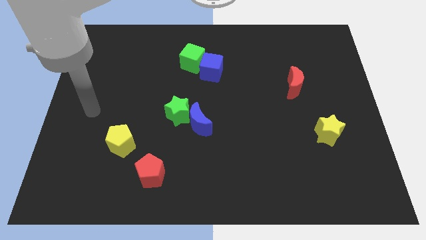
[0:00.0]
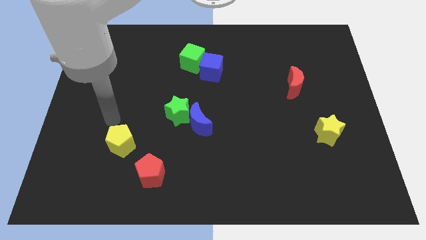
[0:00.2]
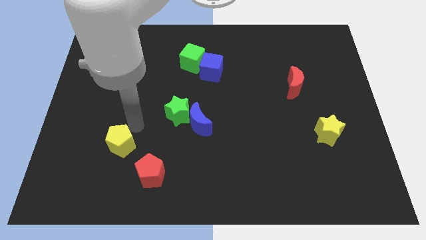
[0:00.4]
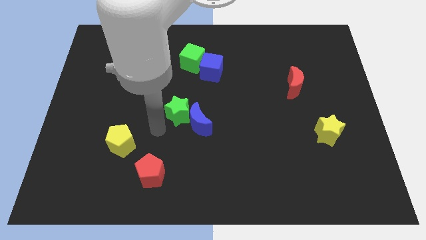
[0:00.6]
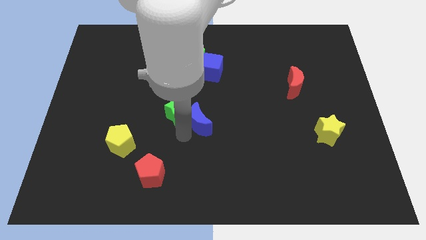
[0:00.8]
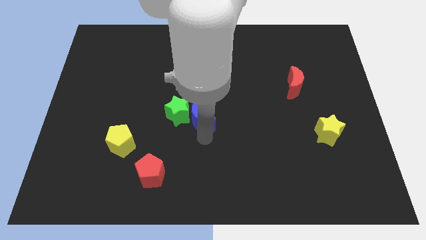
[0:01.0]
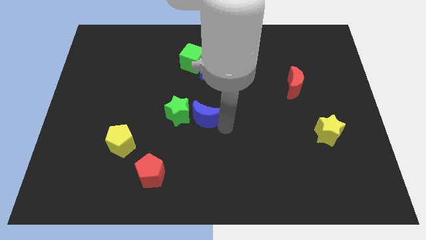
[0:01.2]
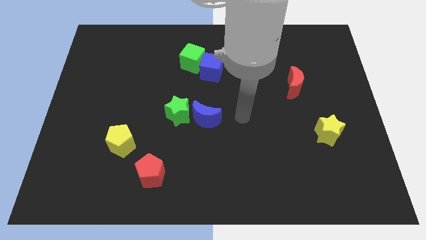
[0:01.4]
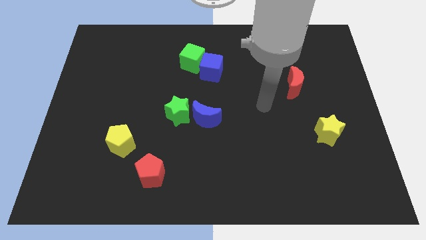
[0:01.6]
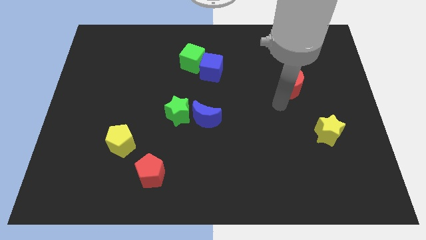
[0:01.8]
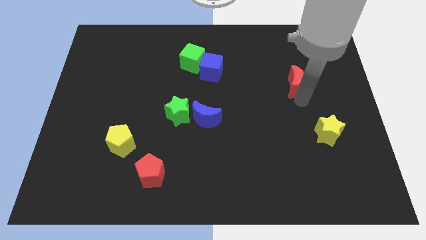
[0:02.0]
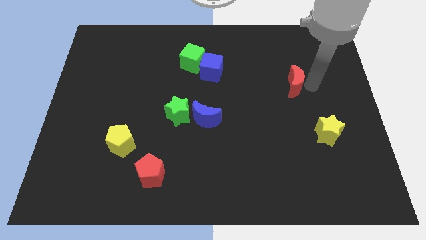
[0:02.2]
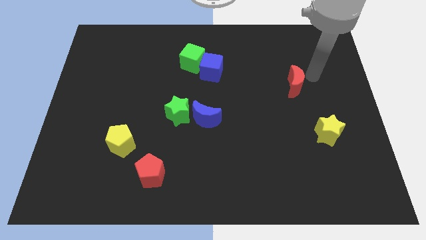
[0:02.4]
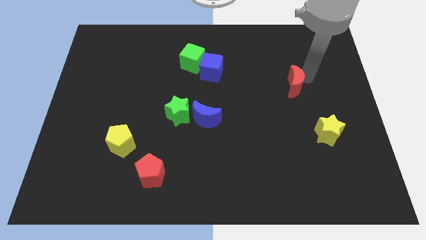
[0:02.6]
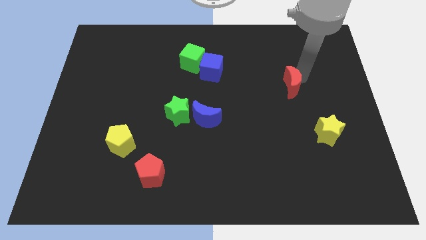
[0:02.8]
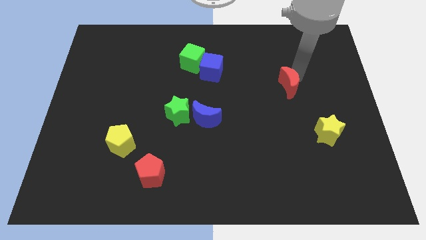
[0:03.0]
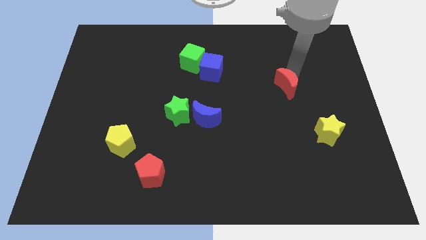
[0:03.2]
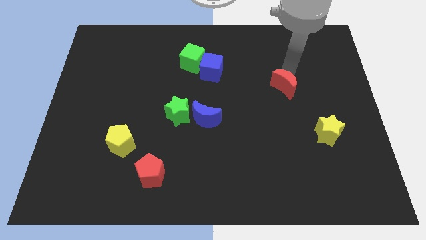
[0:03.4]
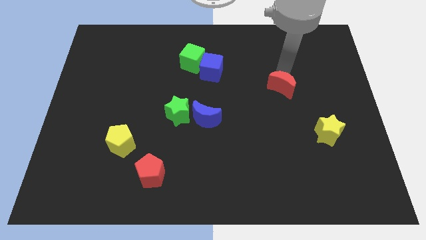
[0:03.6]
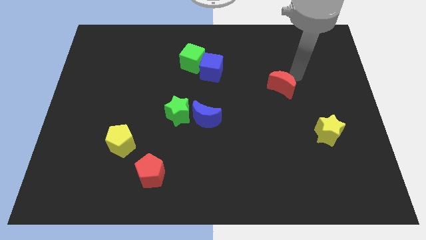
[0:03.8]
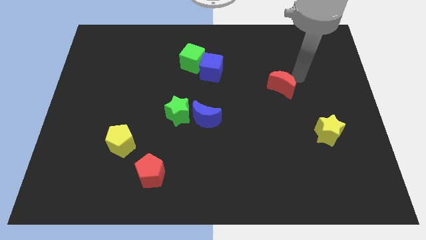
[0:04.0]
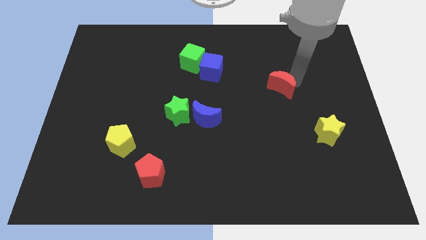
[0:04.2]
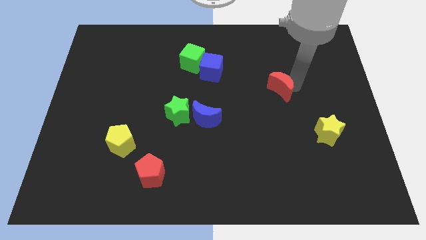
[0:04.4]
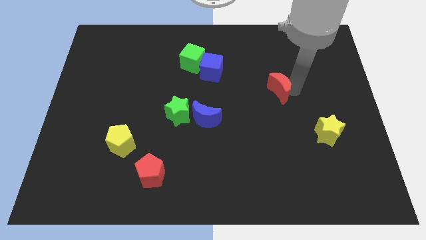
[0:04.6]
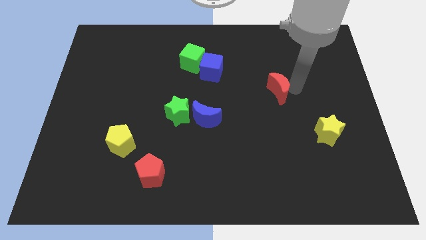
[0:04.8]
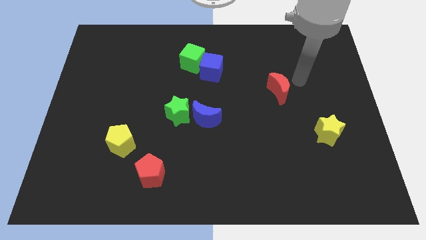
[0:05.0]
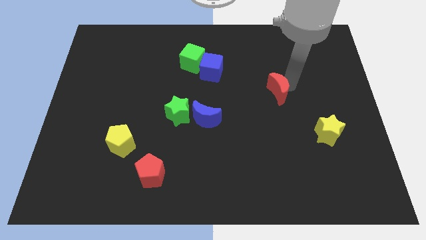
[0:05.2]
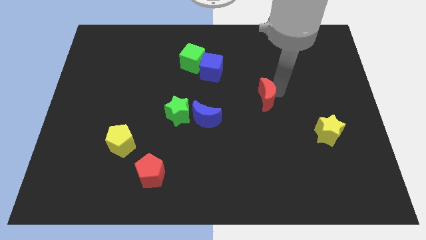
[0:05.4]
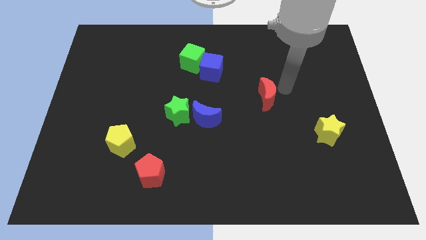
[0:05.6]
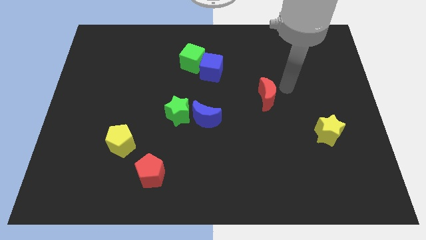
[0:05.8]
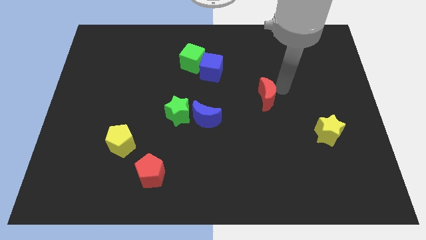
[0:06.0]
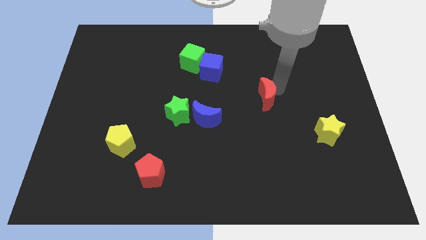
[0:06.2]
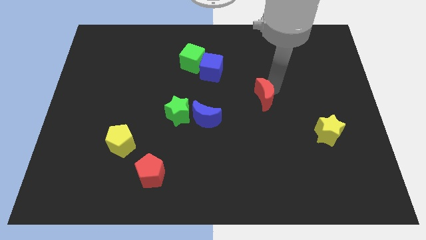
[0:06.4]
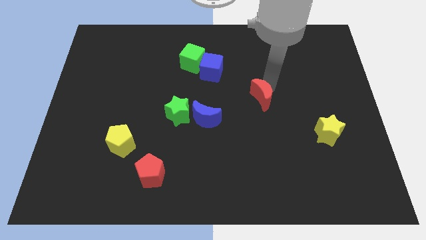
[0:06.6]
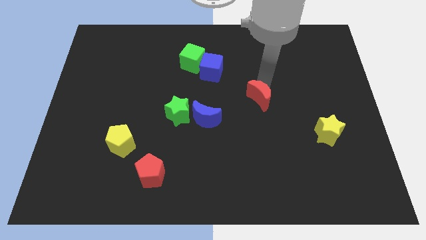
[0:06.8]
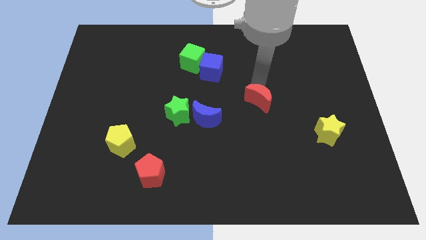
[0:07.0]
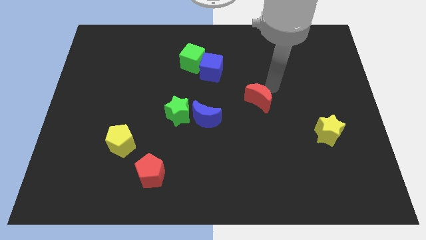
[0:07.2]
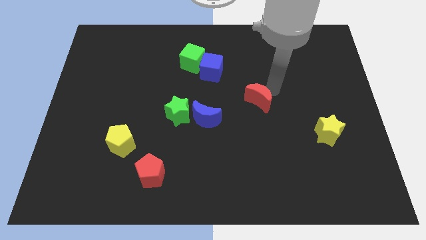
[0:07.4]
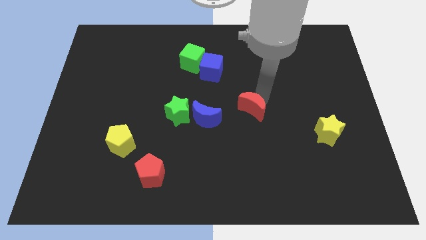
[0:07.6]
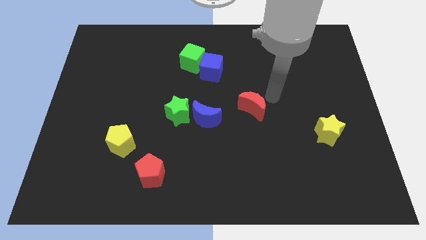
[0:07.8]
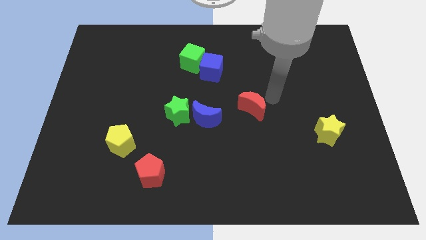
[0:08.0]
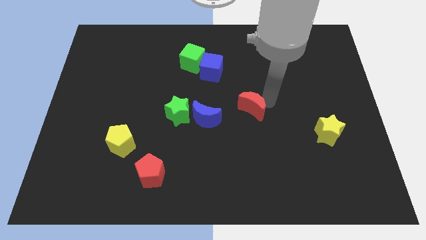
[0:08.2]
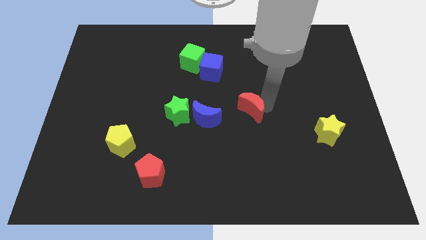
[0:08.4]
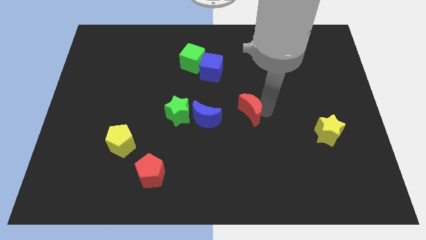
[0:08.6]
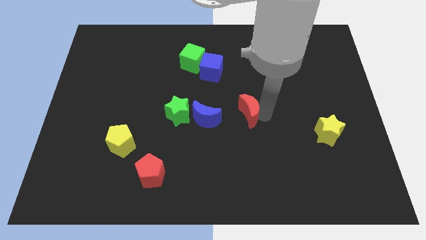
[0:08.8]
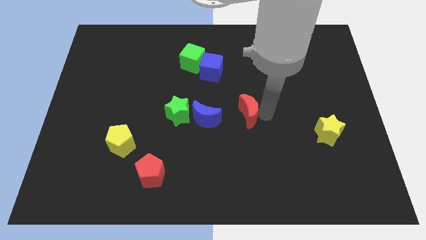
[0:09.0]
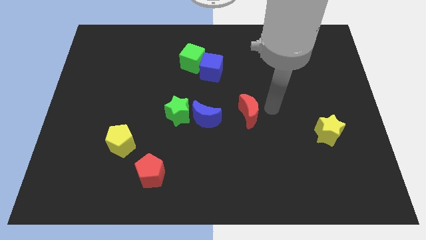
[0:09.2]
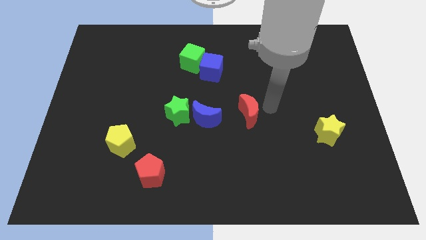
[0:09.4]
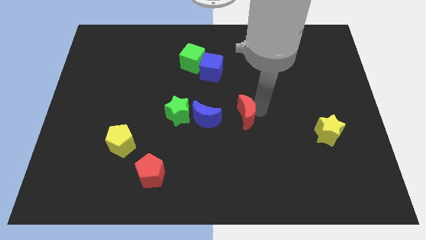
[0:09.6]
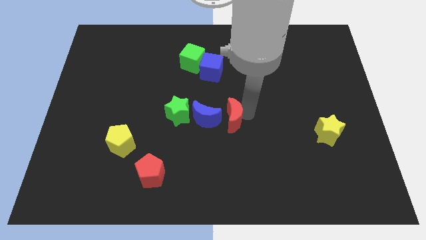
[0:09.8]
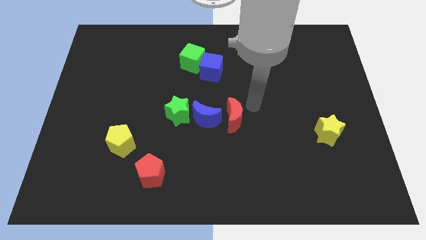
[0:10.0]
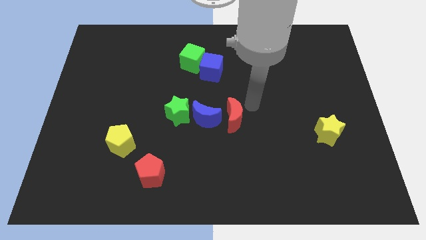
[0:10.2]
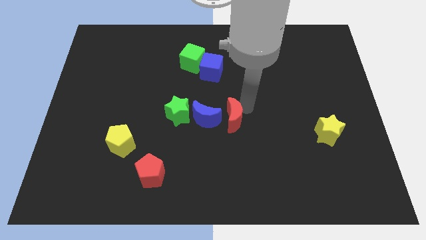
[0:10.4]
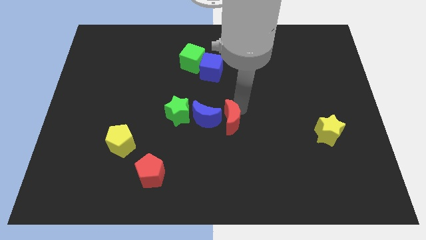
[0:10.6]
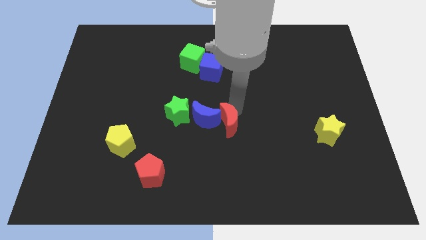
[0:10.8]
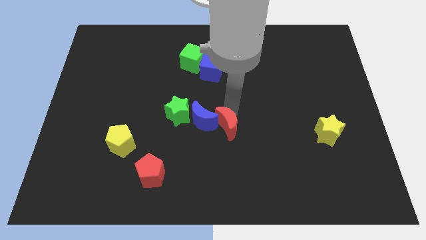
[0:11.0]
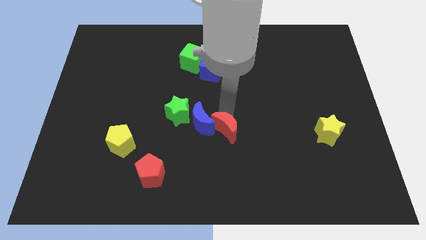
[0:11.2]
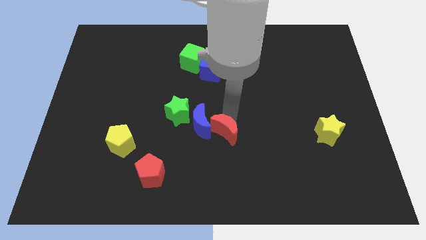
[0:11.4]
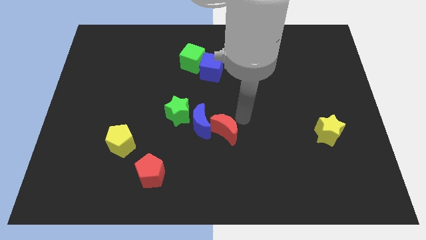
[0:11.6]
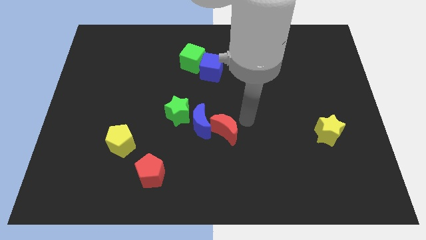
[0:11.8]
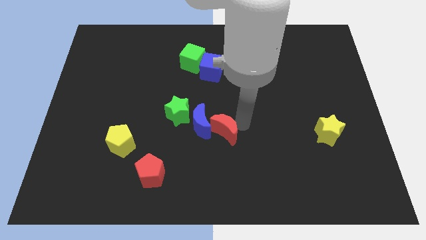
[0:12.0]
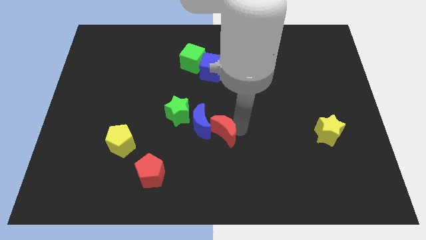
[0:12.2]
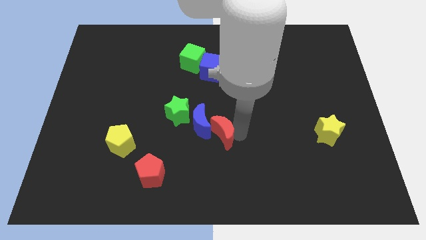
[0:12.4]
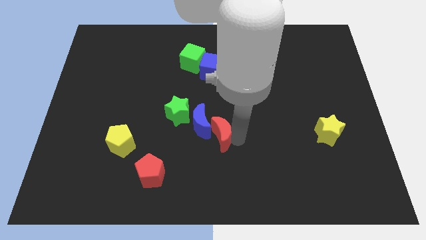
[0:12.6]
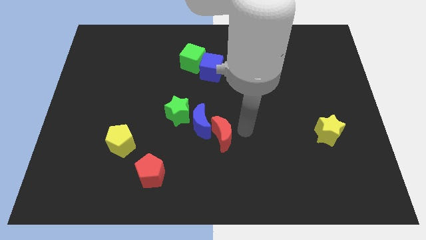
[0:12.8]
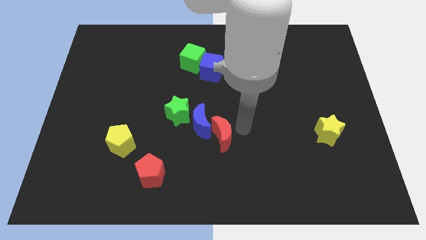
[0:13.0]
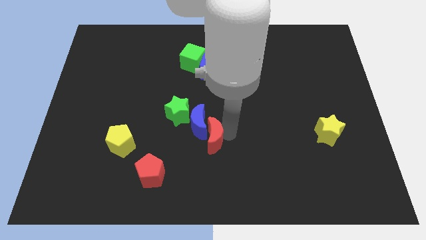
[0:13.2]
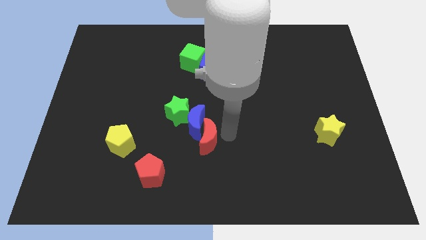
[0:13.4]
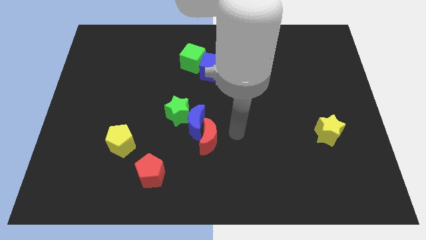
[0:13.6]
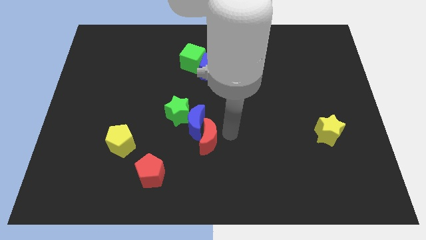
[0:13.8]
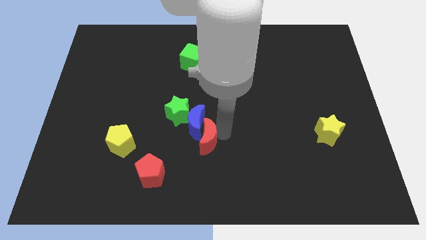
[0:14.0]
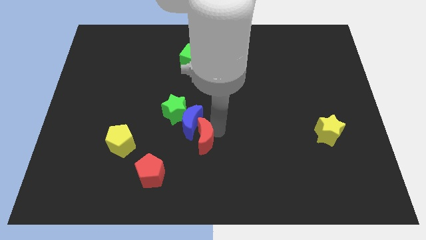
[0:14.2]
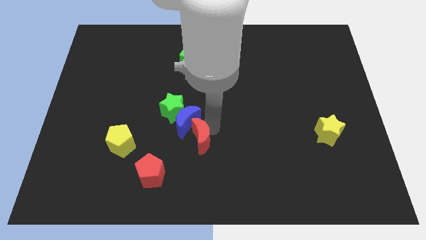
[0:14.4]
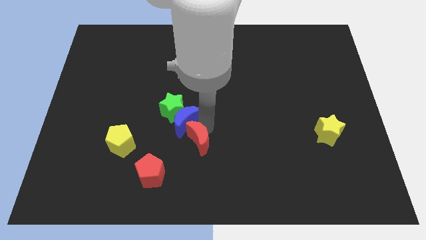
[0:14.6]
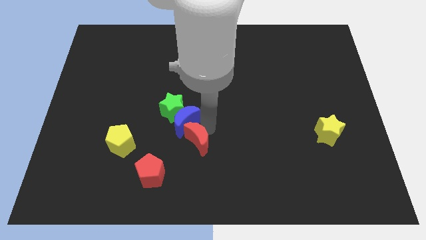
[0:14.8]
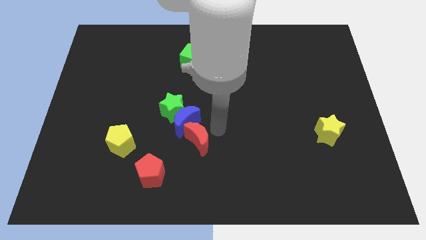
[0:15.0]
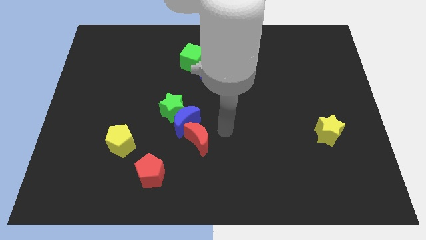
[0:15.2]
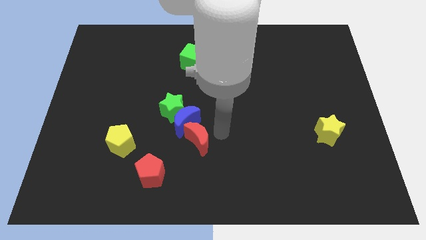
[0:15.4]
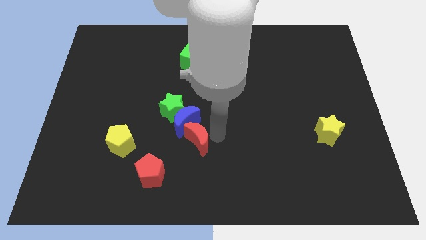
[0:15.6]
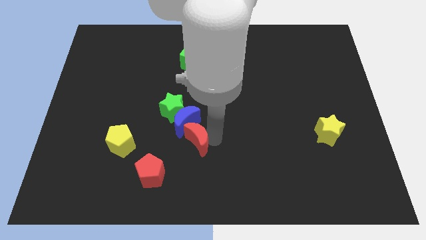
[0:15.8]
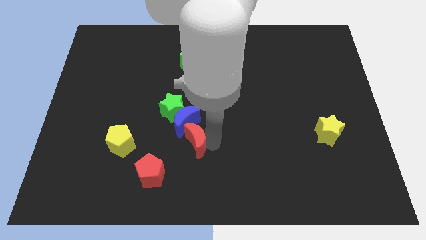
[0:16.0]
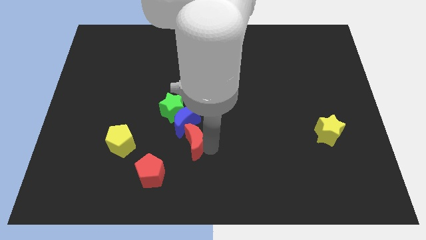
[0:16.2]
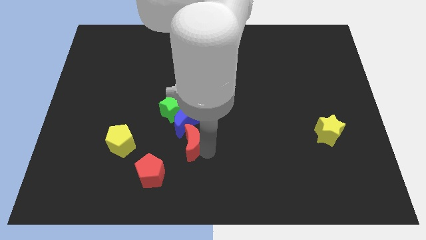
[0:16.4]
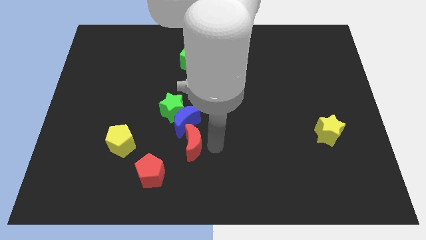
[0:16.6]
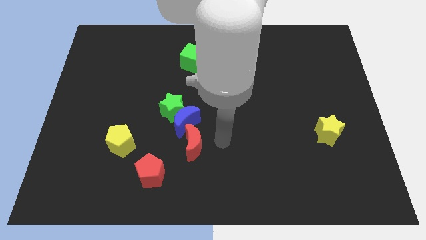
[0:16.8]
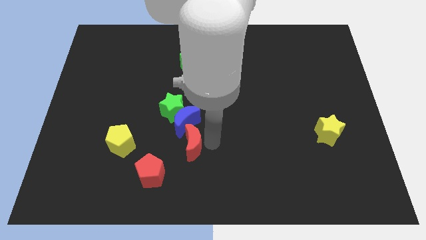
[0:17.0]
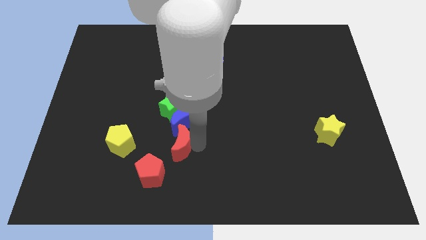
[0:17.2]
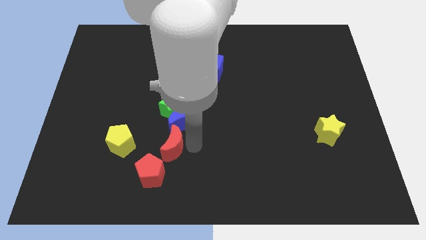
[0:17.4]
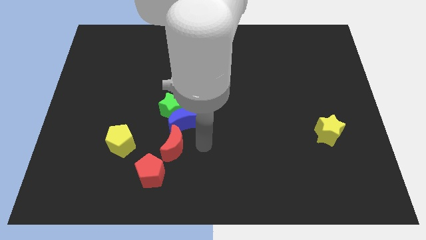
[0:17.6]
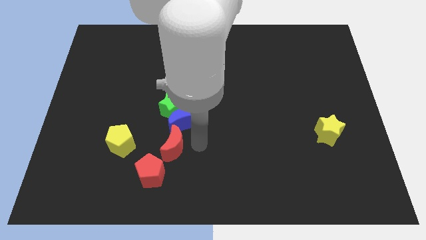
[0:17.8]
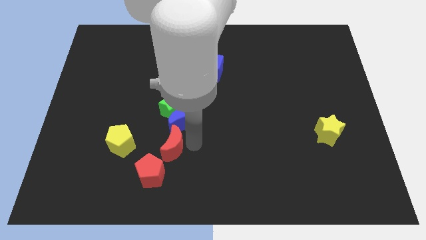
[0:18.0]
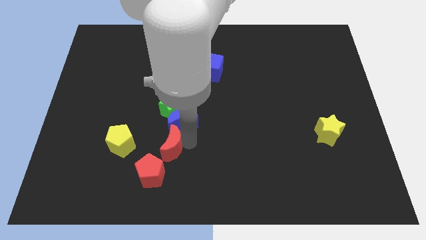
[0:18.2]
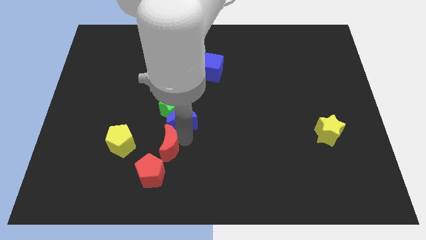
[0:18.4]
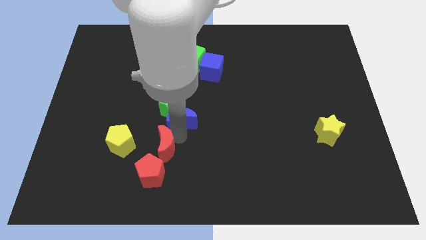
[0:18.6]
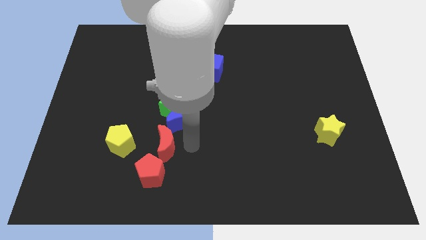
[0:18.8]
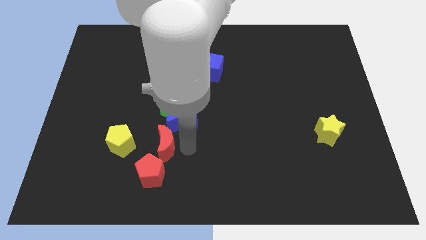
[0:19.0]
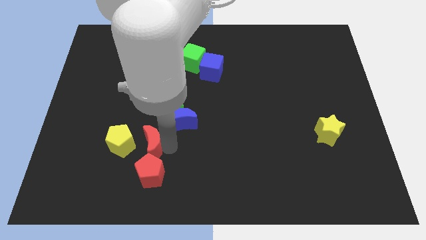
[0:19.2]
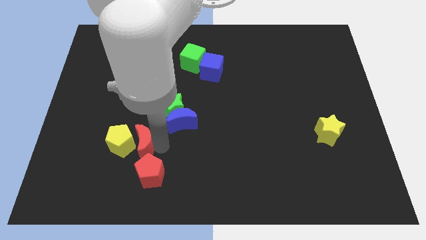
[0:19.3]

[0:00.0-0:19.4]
push the red moon close to the yellow pentagon
